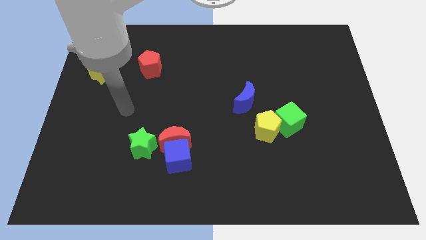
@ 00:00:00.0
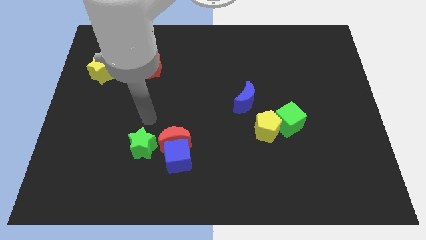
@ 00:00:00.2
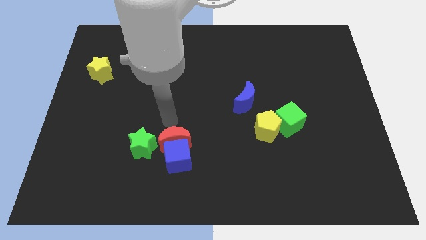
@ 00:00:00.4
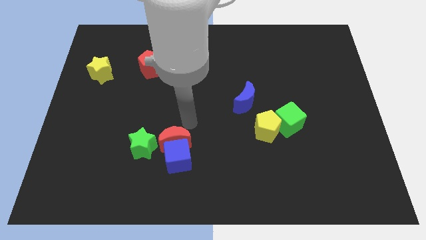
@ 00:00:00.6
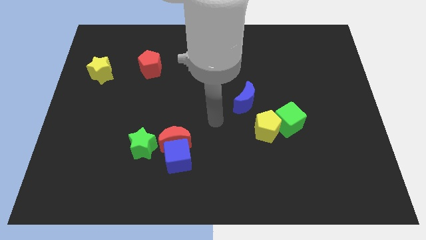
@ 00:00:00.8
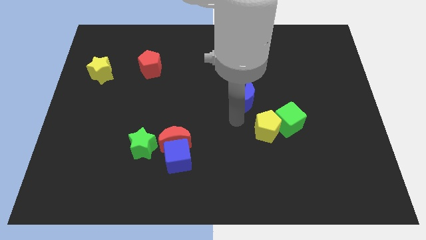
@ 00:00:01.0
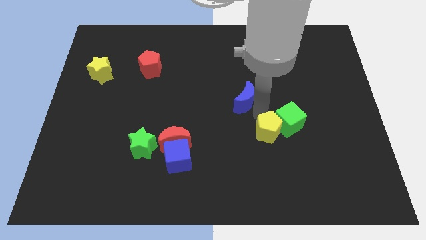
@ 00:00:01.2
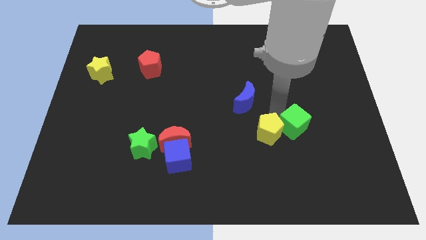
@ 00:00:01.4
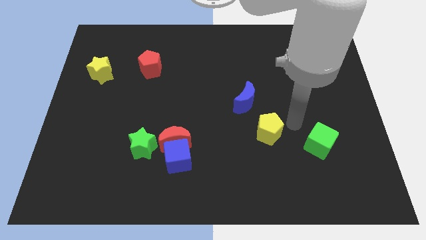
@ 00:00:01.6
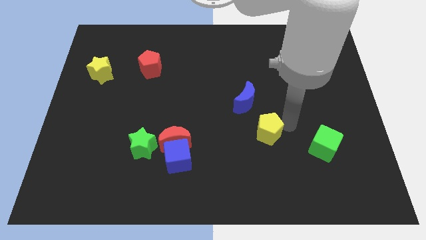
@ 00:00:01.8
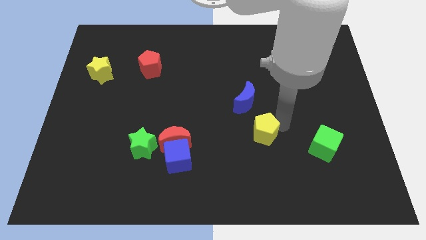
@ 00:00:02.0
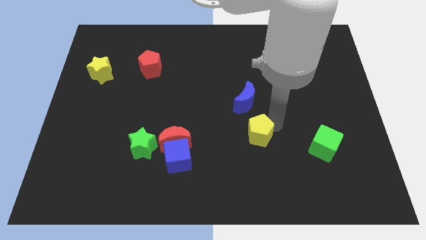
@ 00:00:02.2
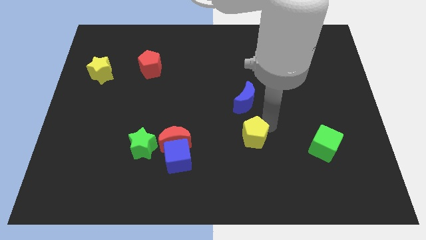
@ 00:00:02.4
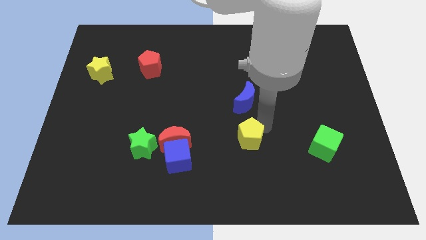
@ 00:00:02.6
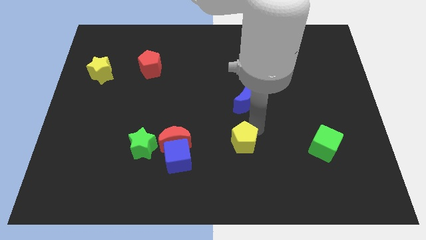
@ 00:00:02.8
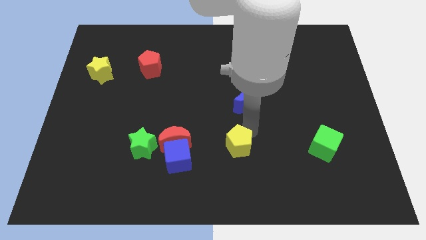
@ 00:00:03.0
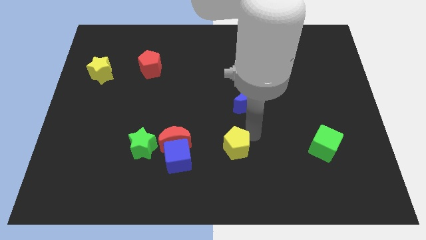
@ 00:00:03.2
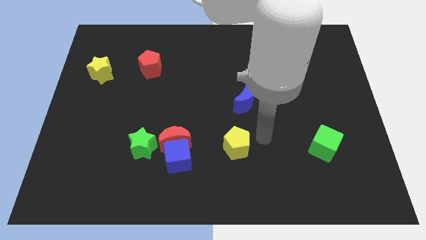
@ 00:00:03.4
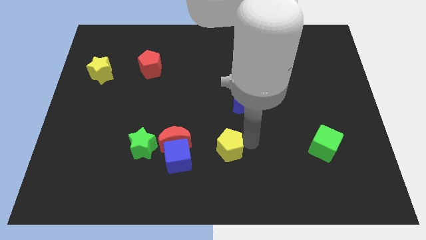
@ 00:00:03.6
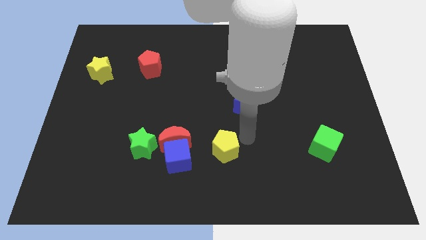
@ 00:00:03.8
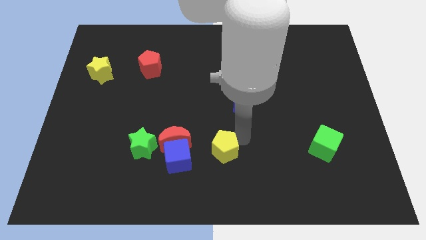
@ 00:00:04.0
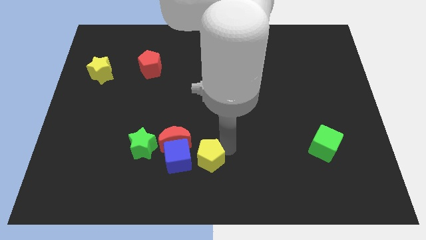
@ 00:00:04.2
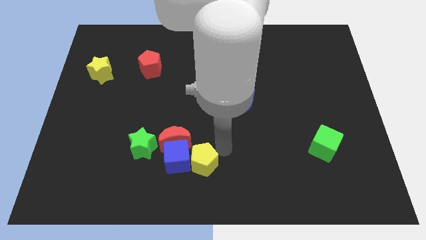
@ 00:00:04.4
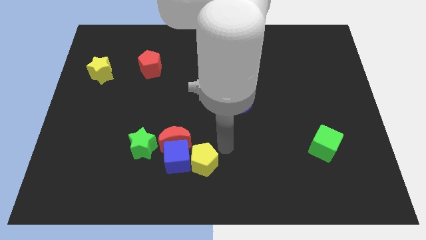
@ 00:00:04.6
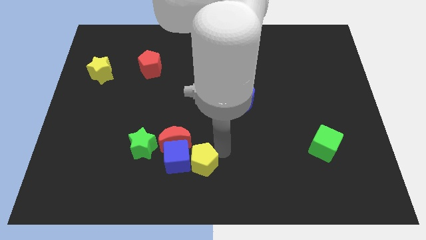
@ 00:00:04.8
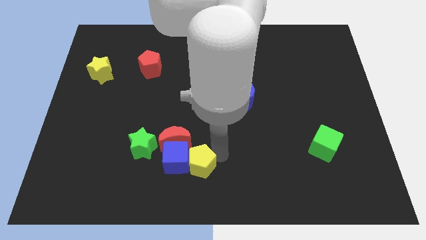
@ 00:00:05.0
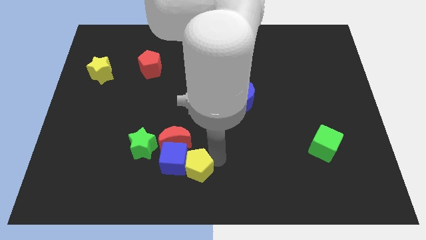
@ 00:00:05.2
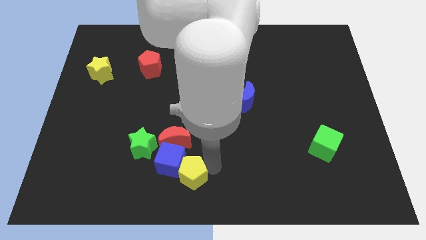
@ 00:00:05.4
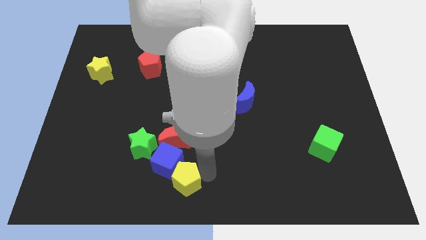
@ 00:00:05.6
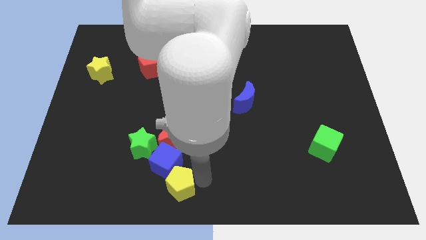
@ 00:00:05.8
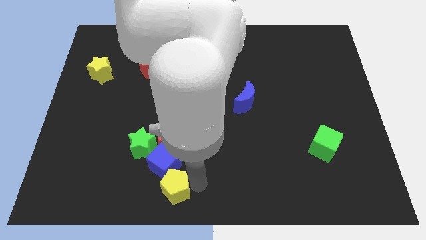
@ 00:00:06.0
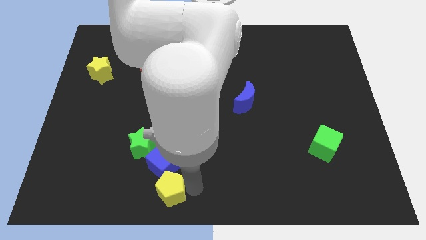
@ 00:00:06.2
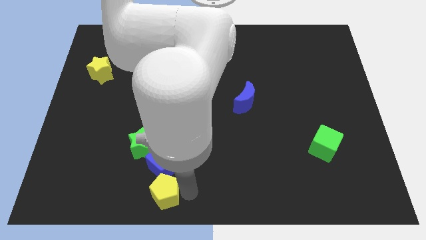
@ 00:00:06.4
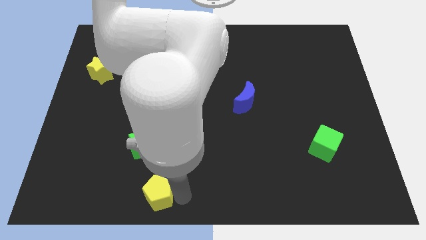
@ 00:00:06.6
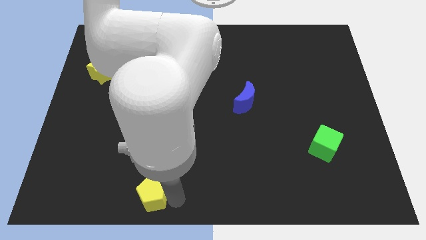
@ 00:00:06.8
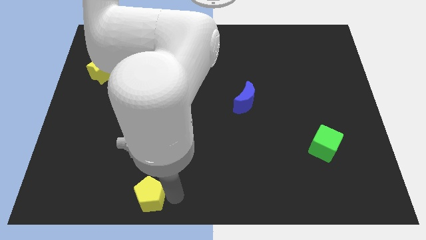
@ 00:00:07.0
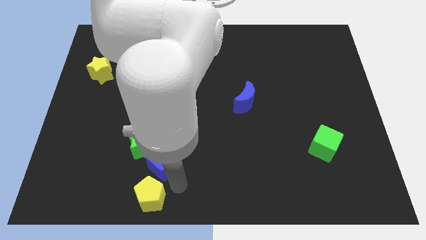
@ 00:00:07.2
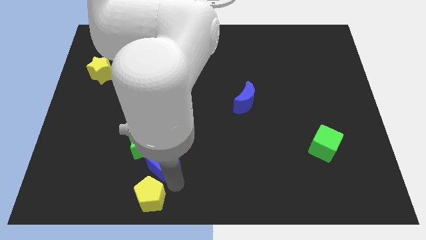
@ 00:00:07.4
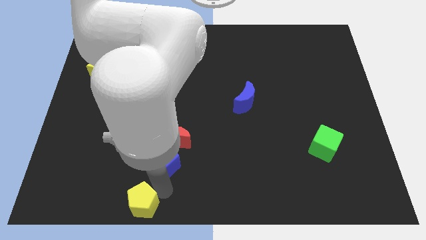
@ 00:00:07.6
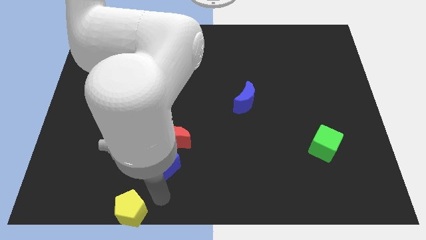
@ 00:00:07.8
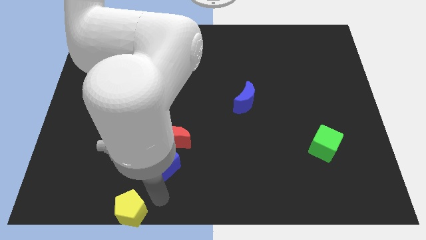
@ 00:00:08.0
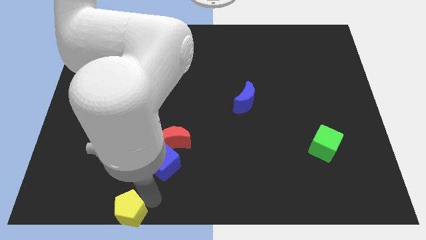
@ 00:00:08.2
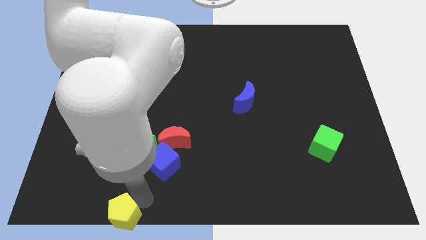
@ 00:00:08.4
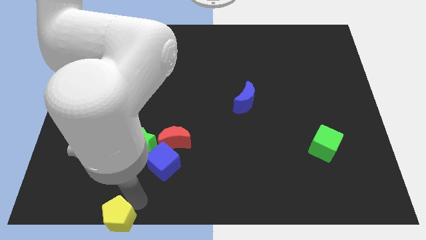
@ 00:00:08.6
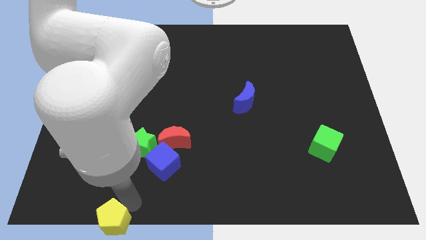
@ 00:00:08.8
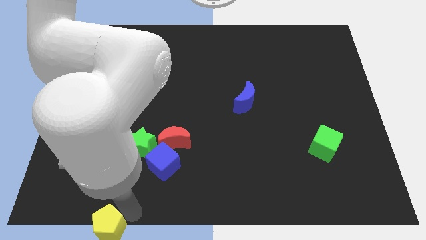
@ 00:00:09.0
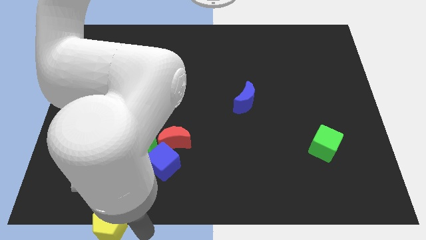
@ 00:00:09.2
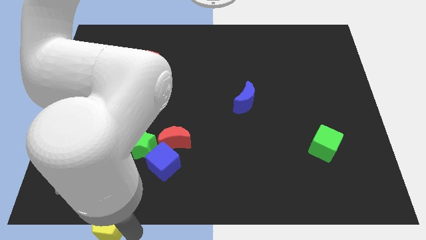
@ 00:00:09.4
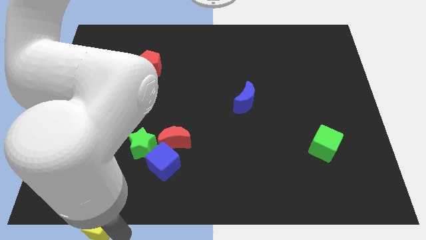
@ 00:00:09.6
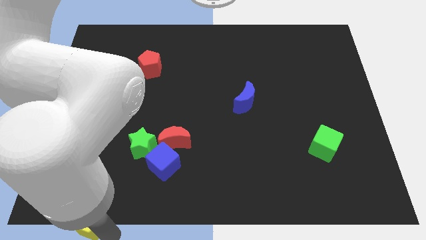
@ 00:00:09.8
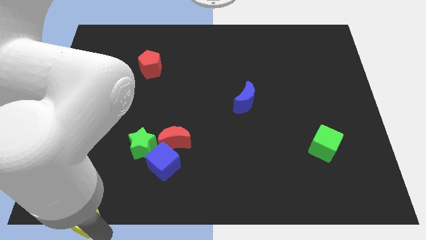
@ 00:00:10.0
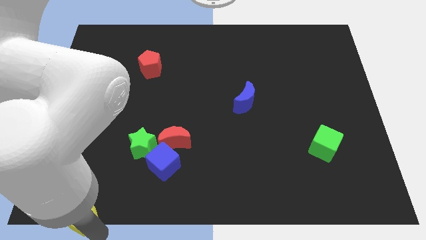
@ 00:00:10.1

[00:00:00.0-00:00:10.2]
move the yellow pentagon to the bottom left corner

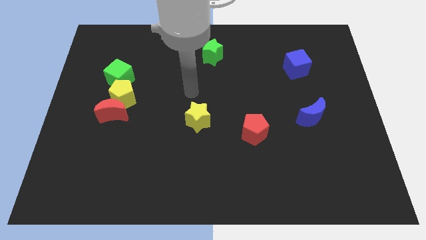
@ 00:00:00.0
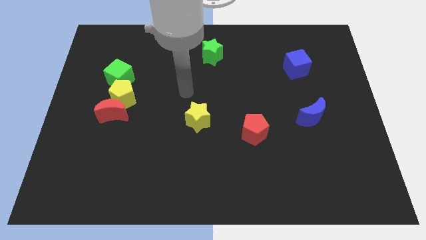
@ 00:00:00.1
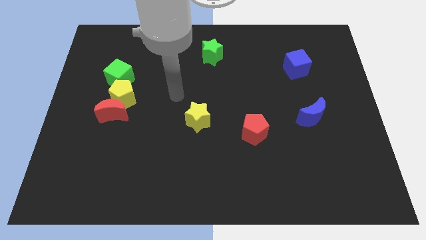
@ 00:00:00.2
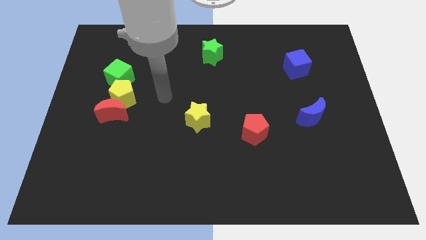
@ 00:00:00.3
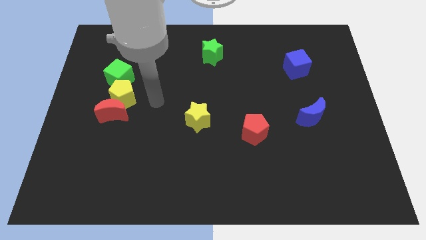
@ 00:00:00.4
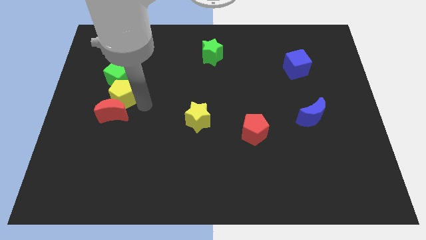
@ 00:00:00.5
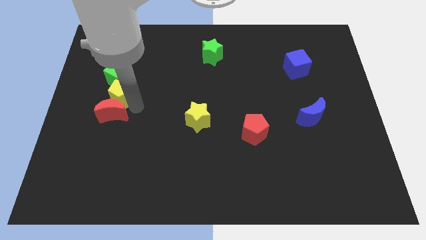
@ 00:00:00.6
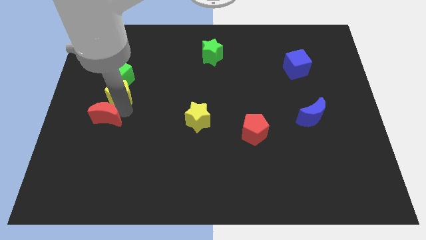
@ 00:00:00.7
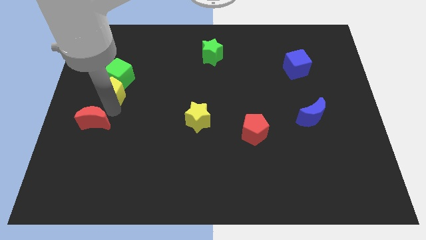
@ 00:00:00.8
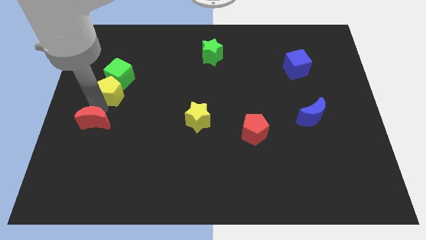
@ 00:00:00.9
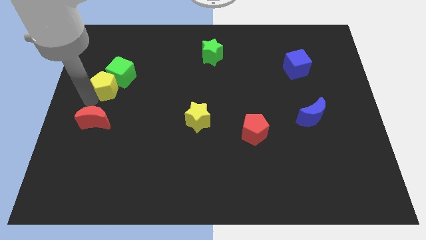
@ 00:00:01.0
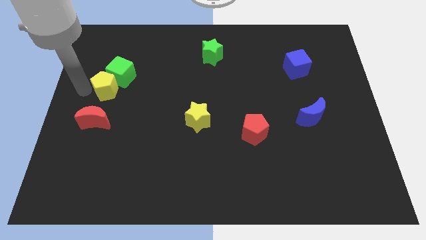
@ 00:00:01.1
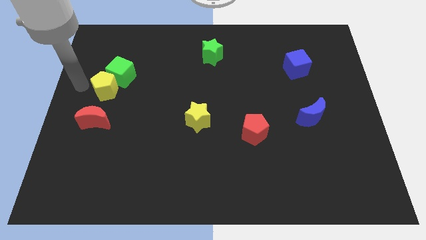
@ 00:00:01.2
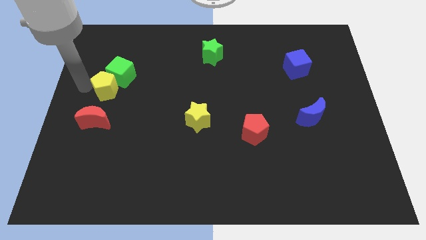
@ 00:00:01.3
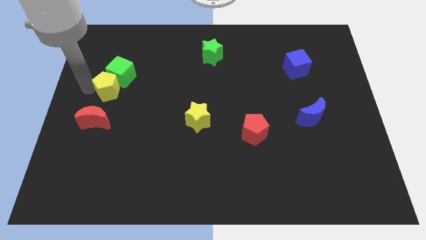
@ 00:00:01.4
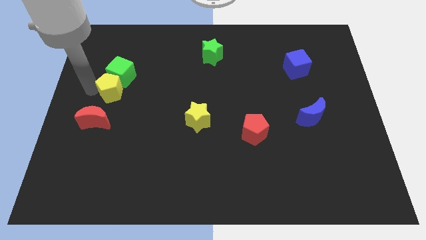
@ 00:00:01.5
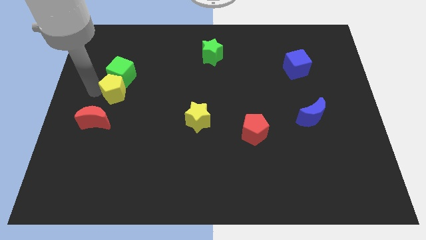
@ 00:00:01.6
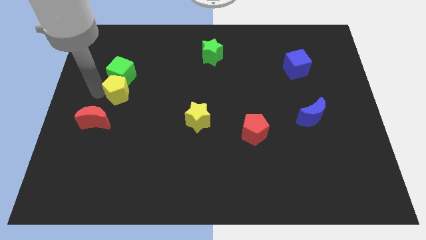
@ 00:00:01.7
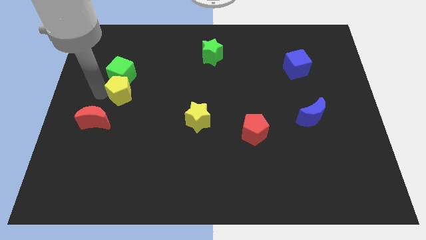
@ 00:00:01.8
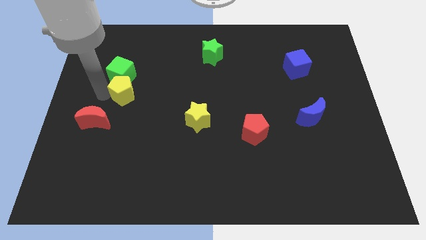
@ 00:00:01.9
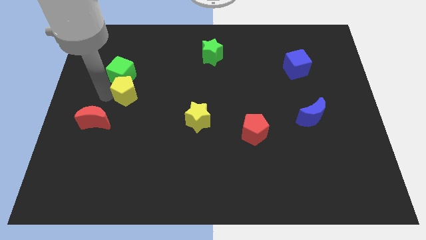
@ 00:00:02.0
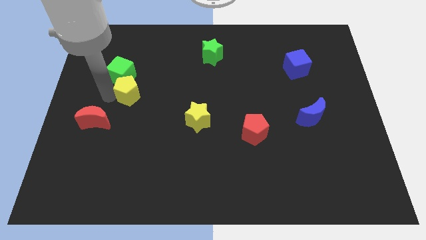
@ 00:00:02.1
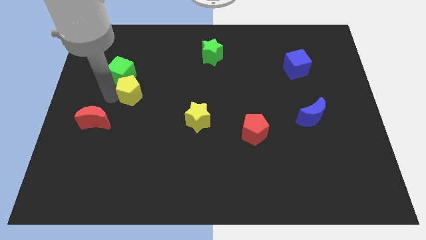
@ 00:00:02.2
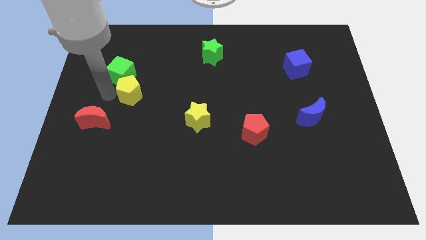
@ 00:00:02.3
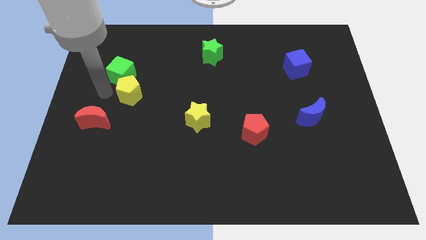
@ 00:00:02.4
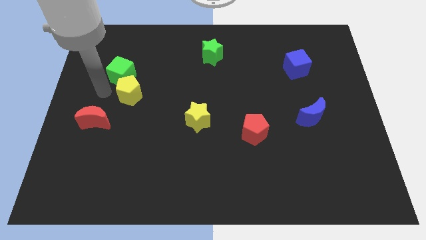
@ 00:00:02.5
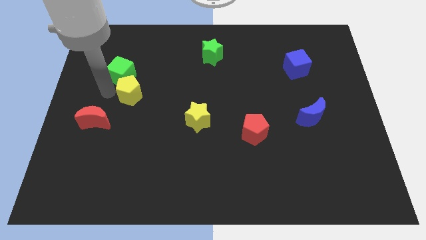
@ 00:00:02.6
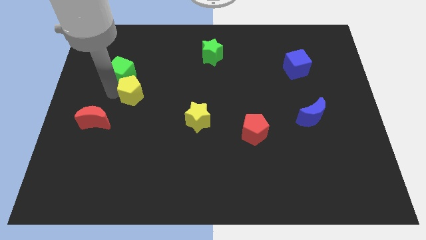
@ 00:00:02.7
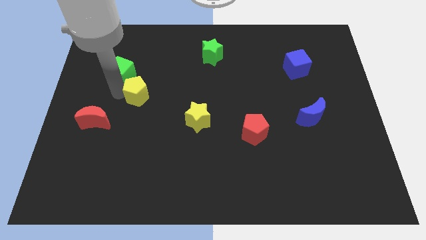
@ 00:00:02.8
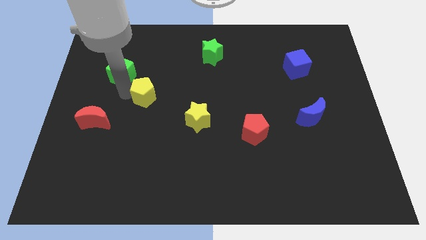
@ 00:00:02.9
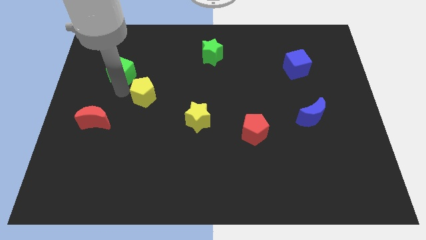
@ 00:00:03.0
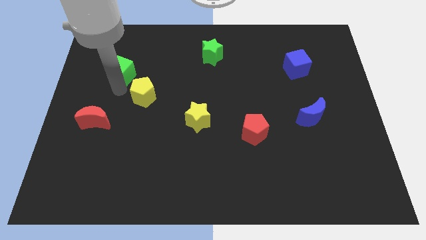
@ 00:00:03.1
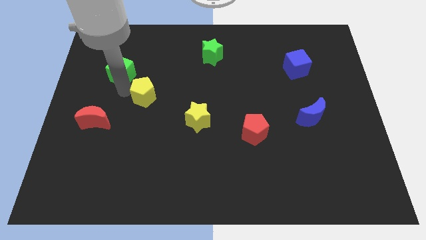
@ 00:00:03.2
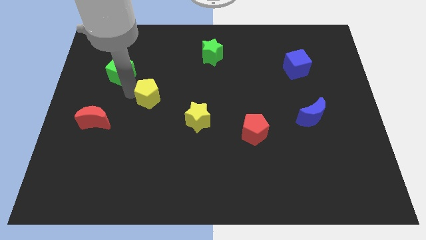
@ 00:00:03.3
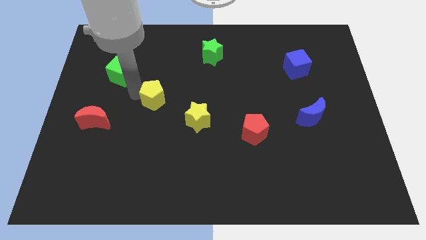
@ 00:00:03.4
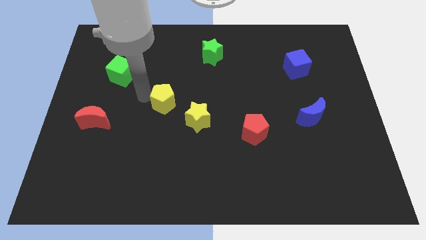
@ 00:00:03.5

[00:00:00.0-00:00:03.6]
put the yellow pentagon to the center
